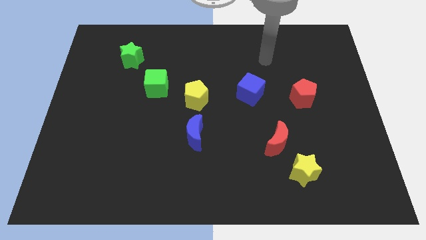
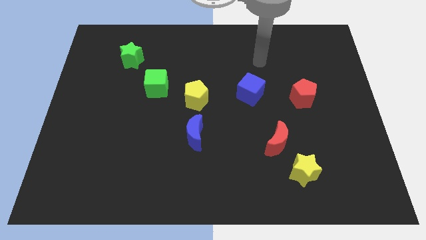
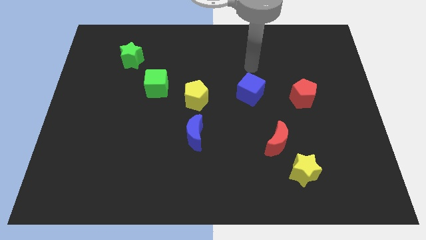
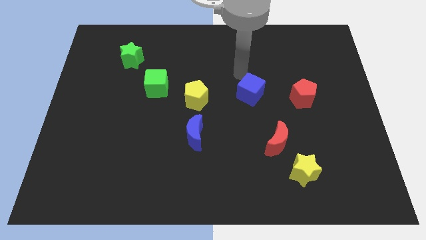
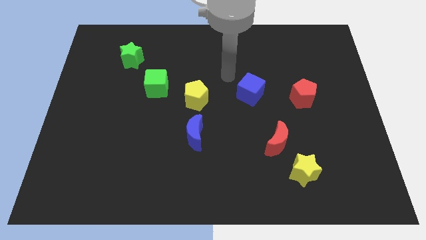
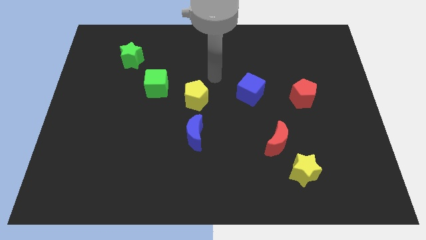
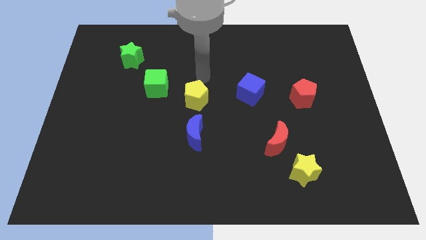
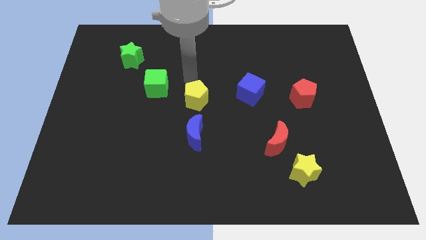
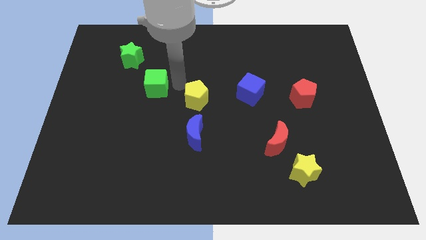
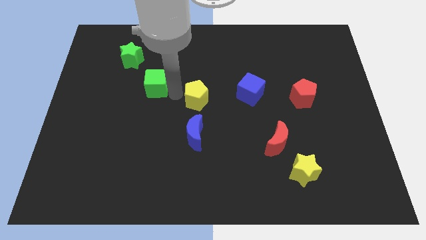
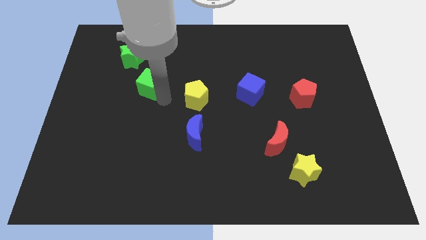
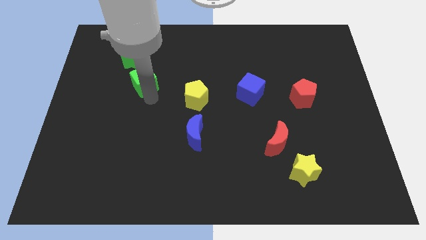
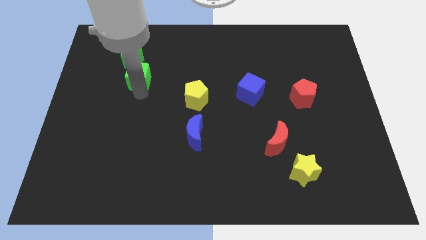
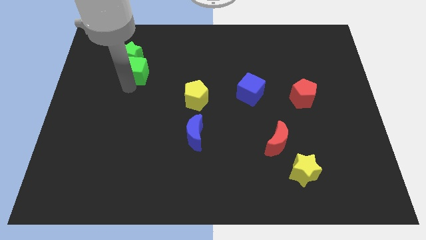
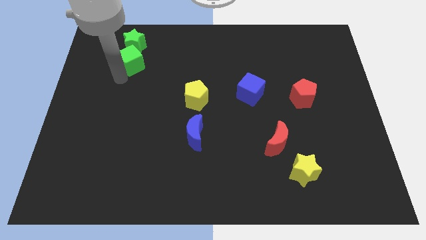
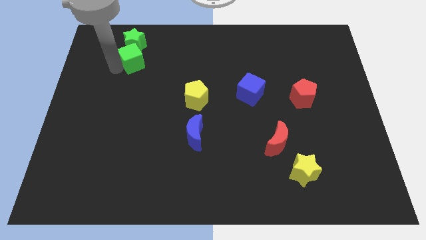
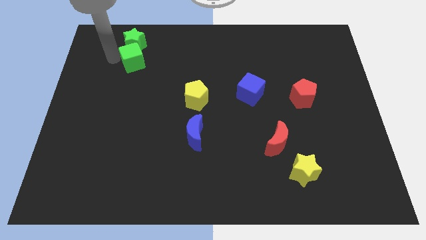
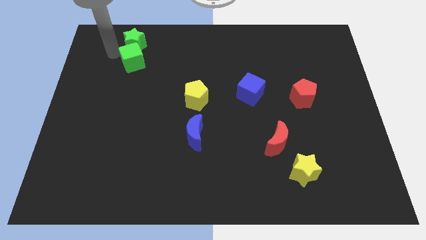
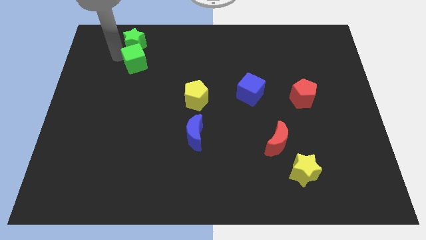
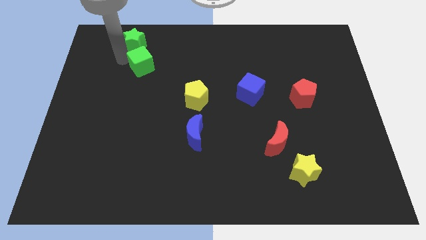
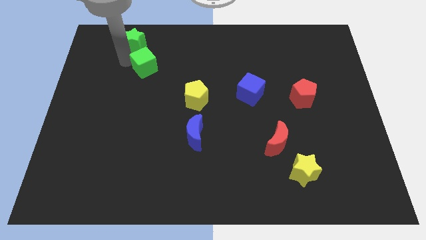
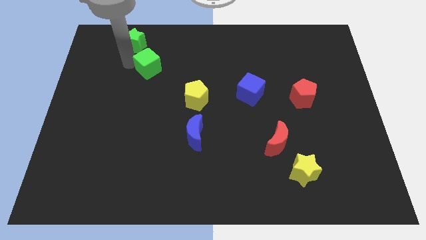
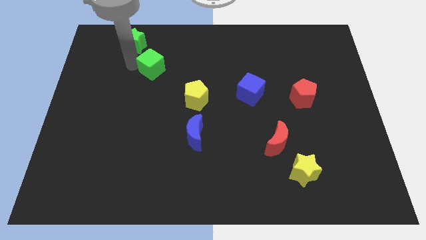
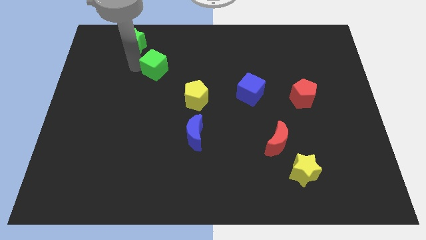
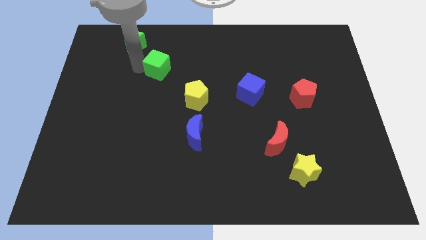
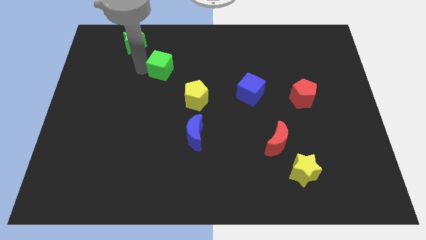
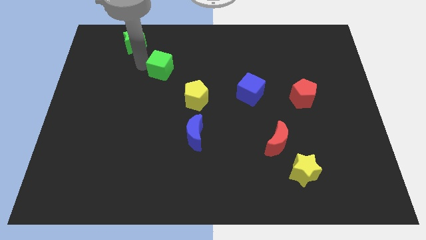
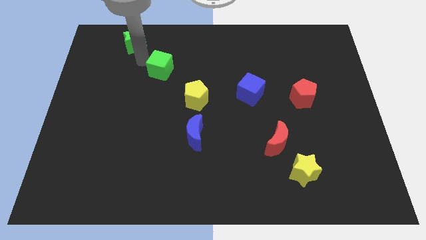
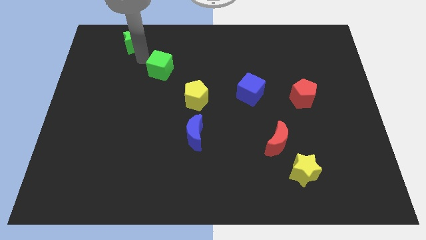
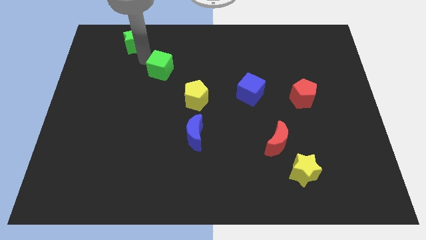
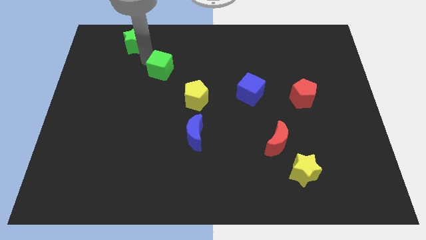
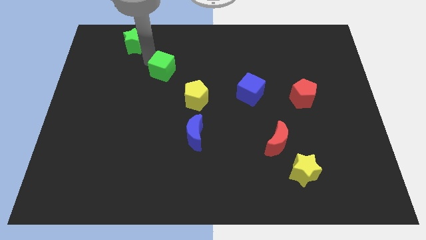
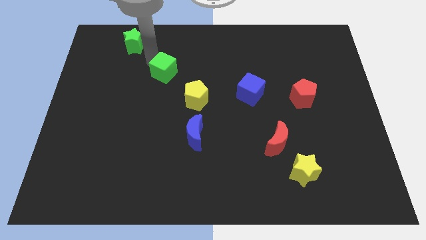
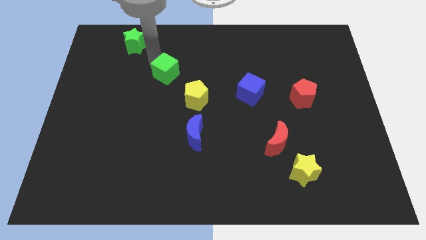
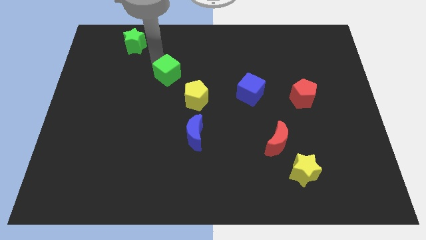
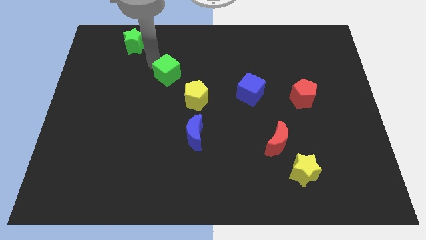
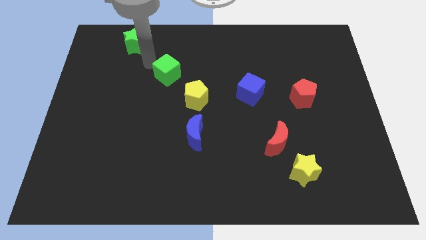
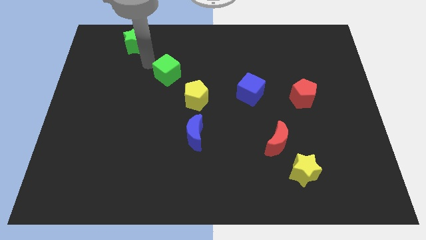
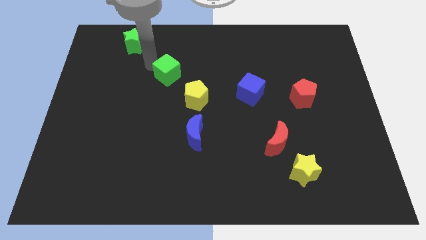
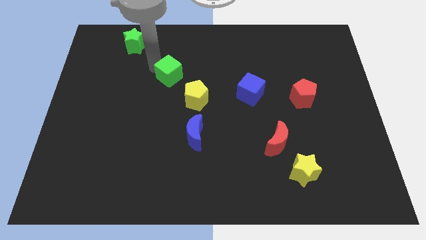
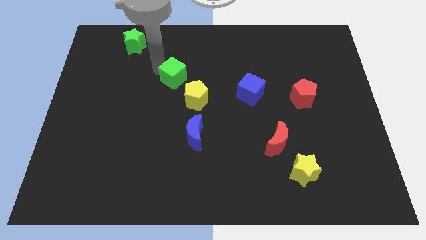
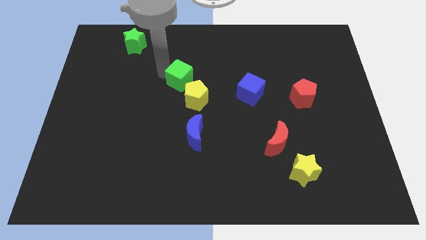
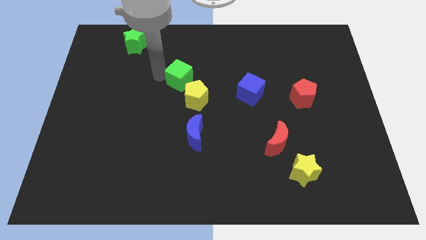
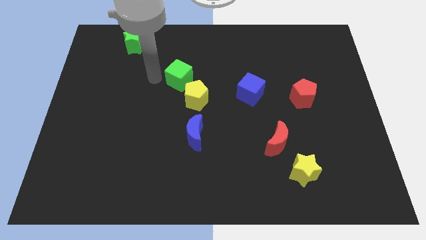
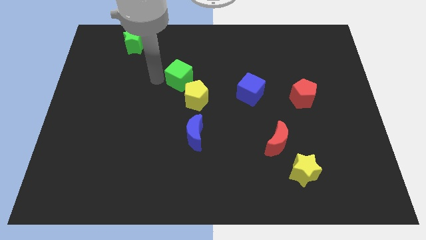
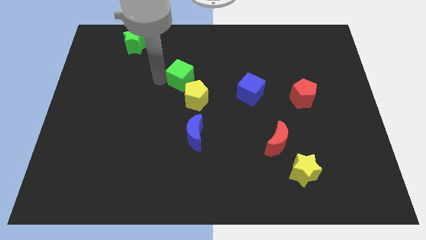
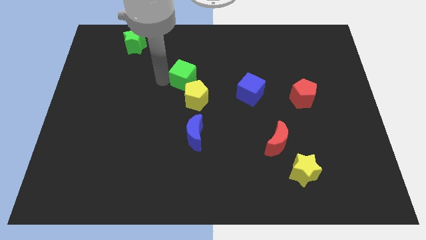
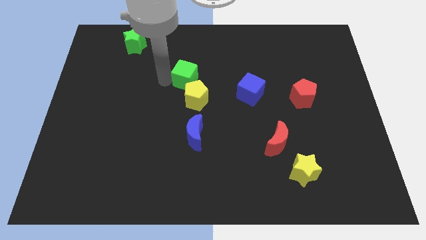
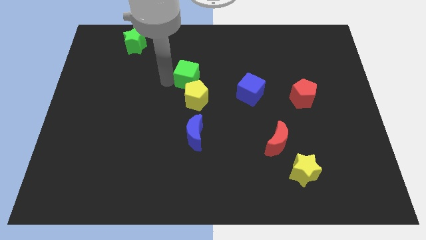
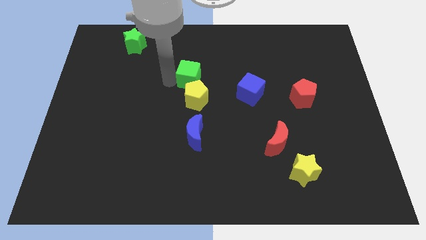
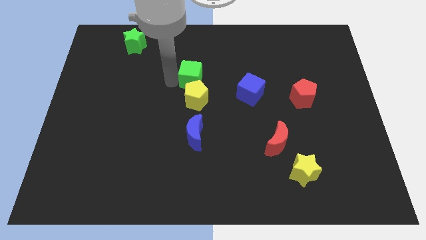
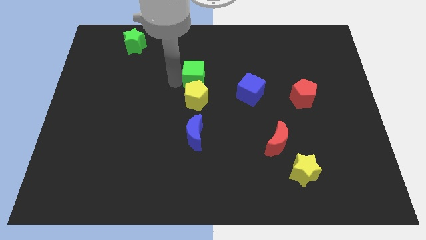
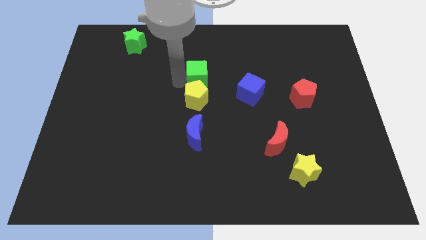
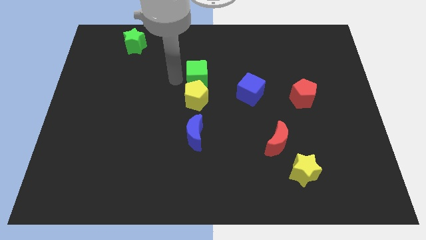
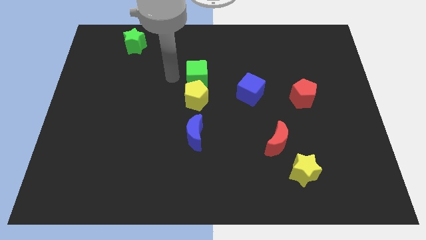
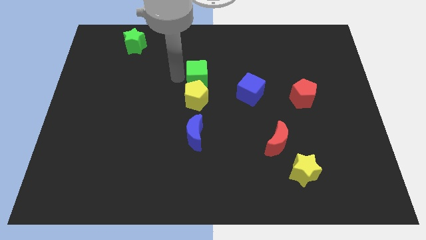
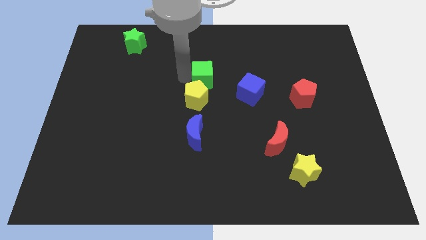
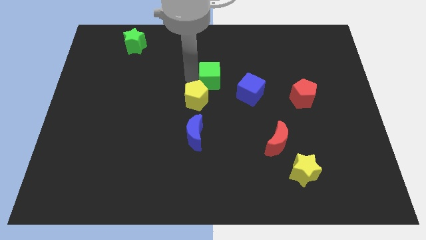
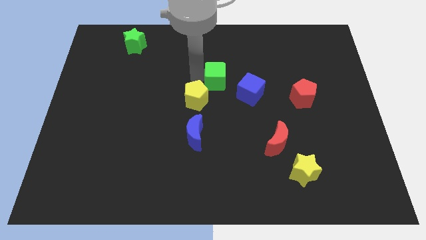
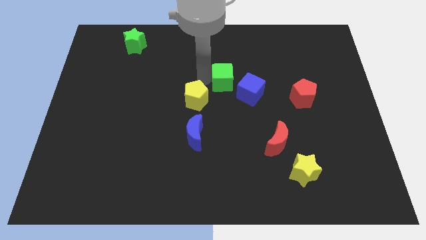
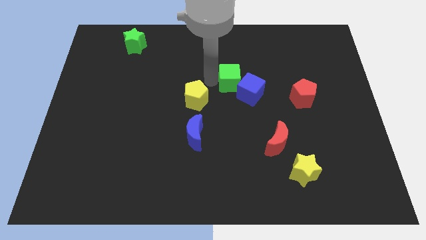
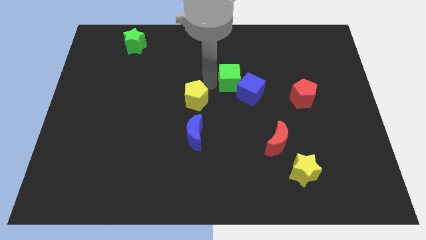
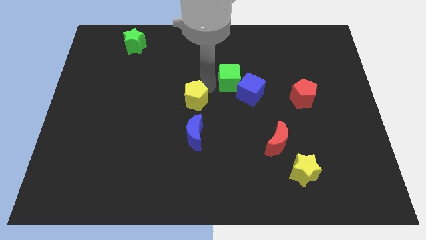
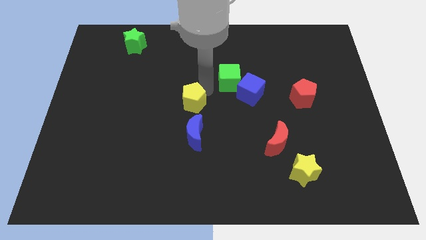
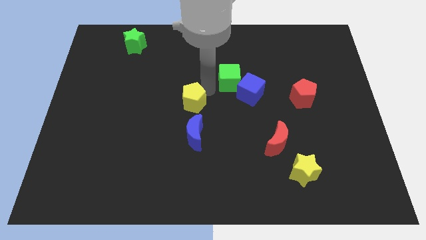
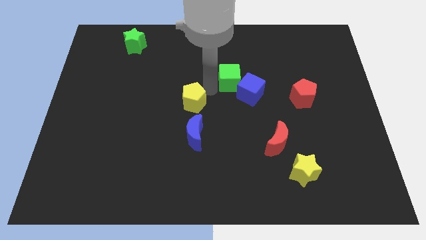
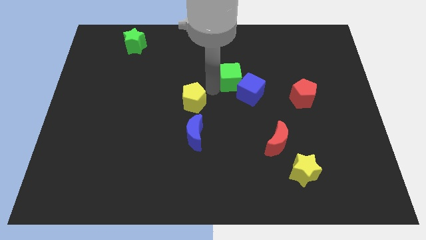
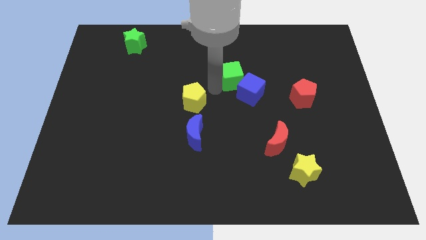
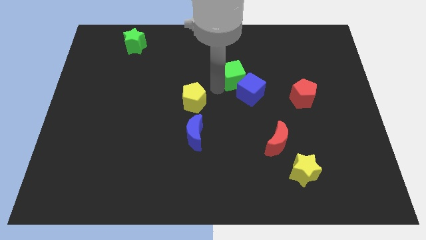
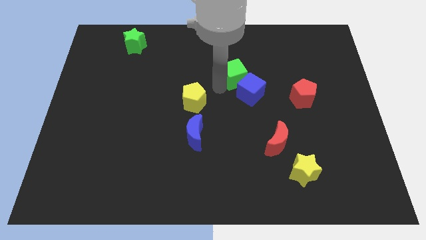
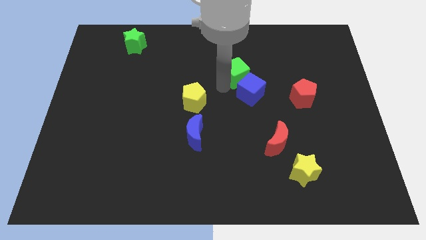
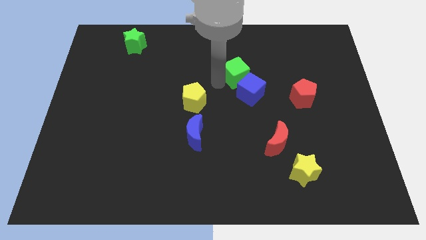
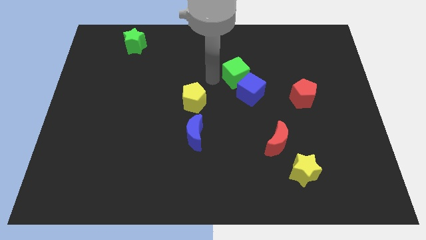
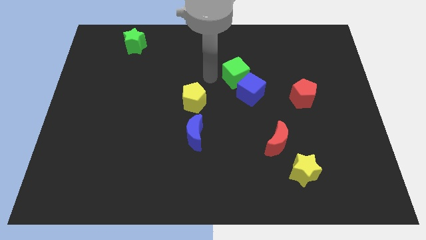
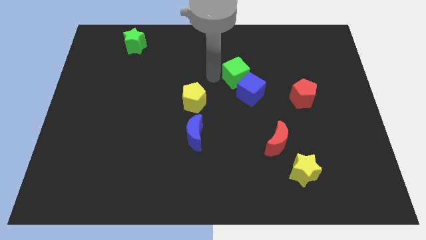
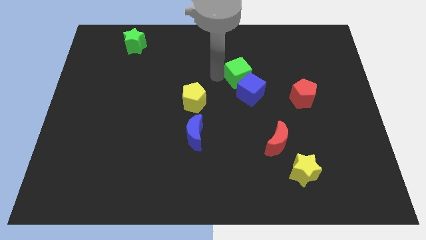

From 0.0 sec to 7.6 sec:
push the green cube right

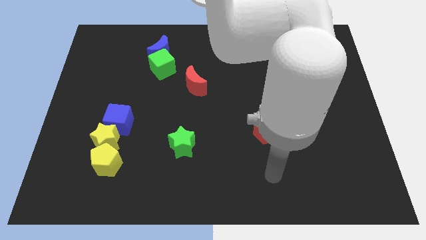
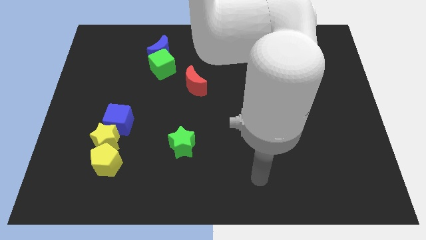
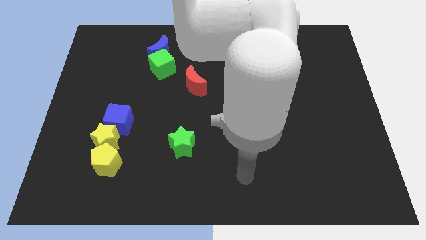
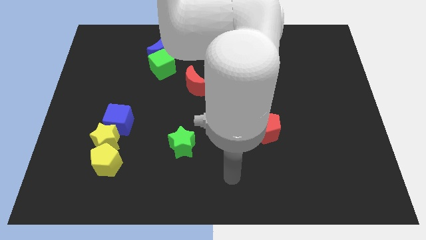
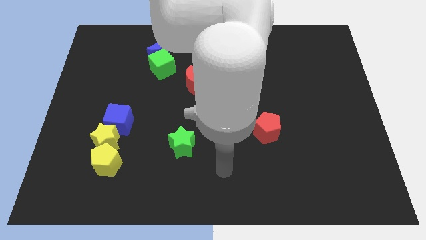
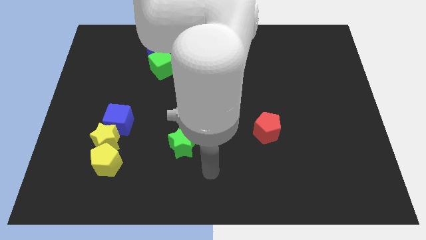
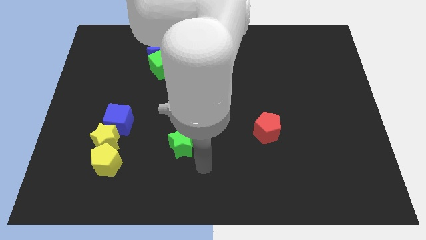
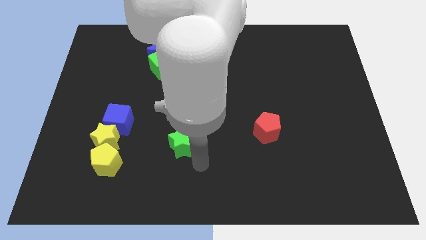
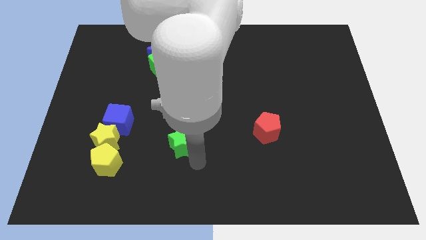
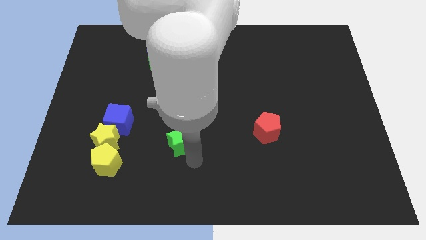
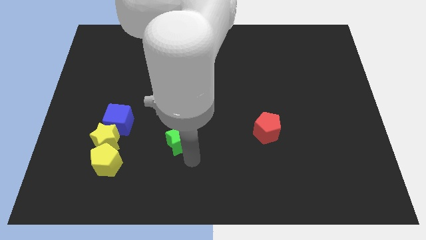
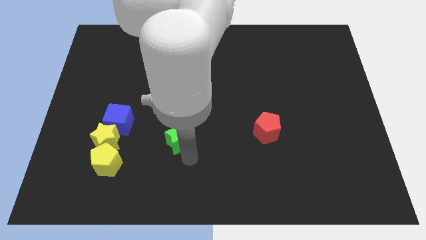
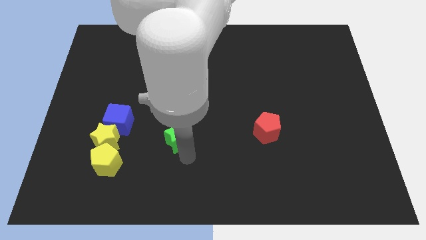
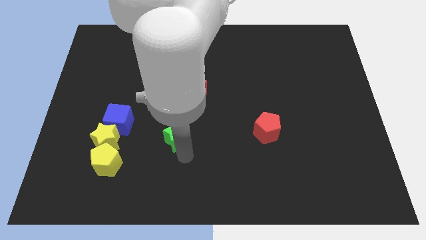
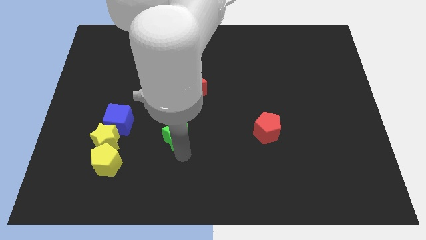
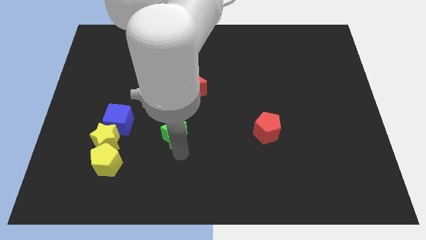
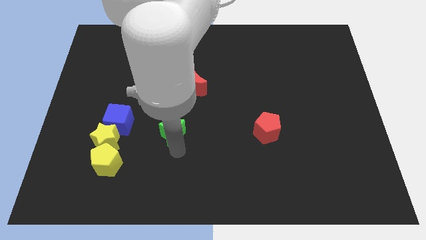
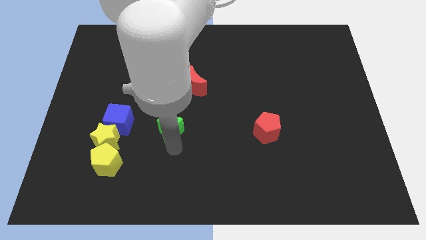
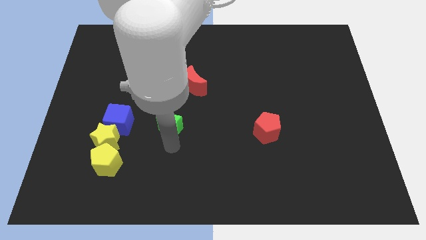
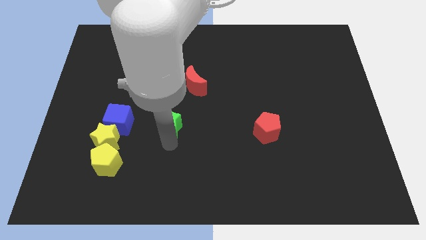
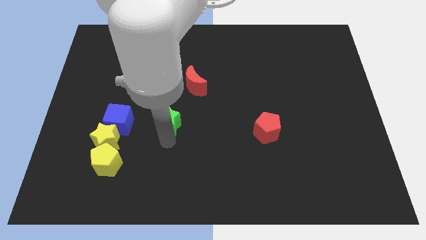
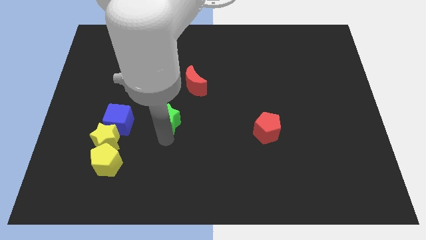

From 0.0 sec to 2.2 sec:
slide the green star diagonally up and to the left a little
